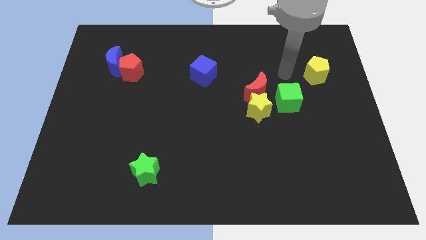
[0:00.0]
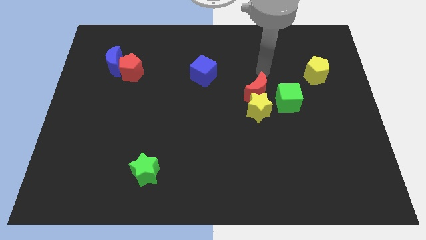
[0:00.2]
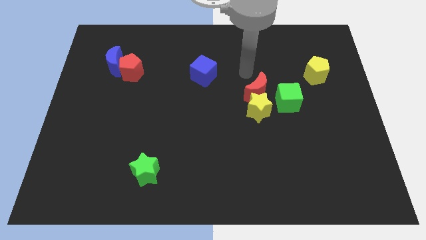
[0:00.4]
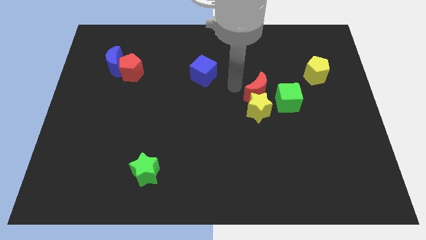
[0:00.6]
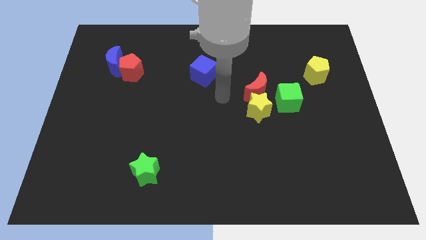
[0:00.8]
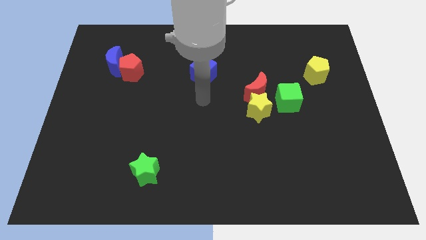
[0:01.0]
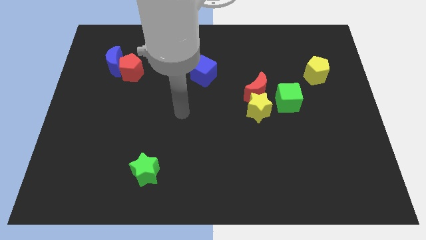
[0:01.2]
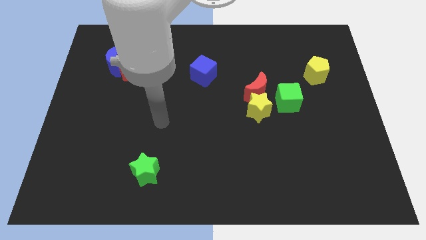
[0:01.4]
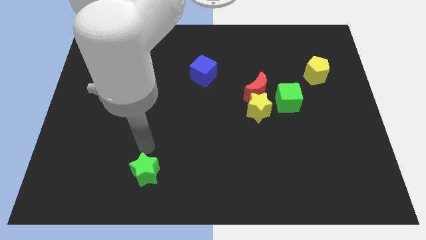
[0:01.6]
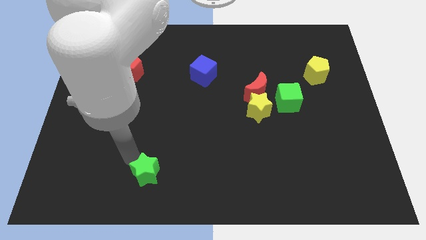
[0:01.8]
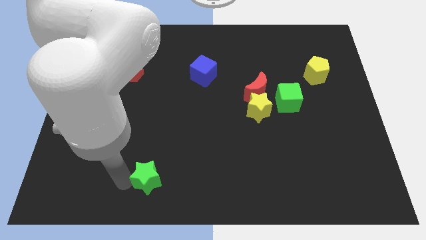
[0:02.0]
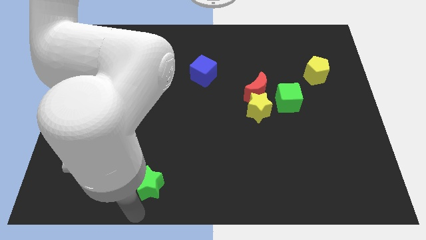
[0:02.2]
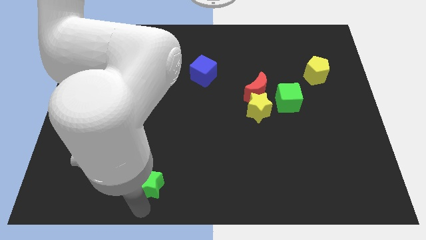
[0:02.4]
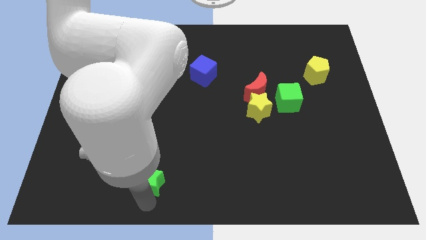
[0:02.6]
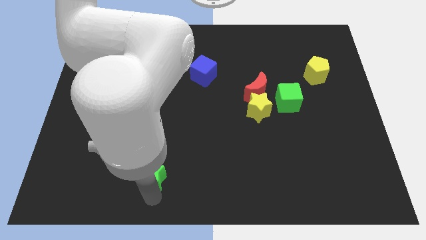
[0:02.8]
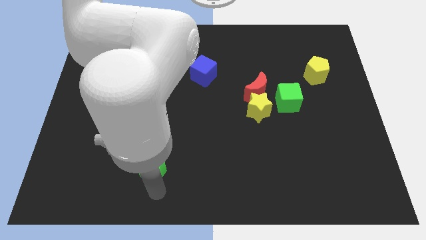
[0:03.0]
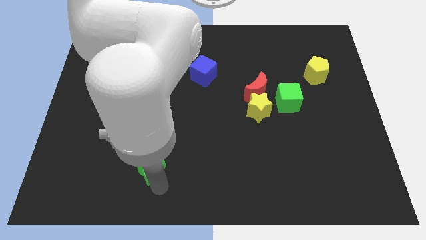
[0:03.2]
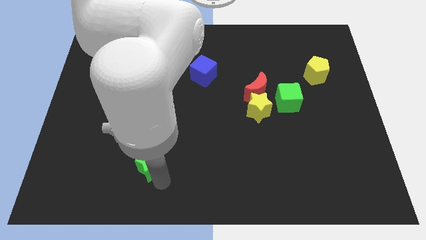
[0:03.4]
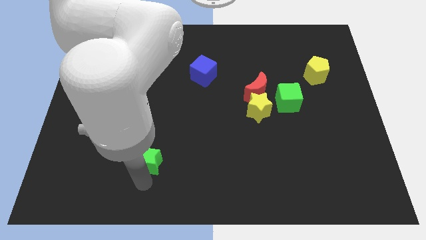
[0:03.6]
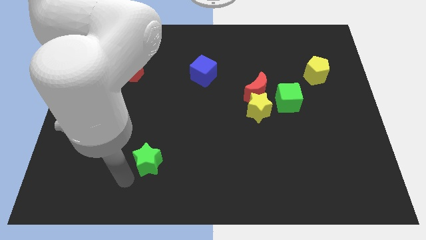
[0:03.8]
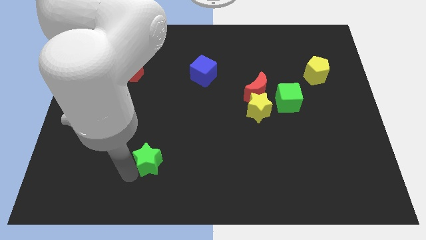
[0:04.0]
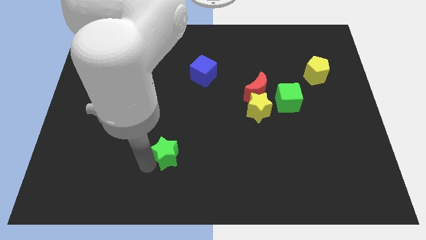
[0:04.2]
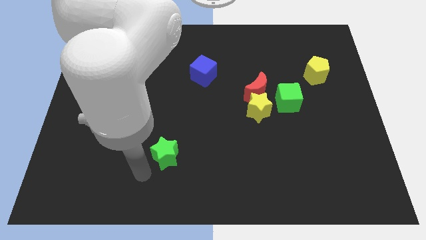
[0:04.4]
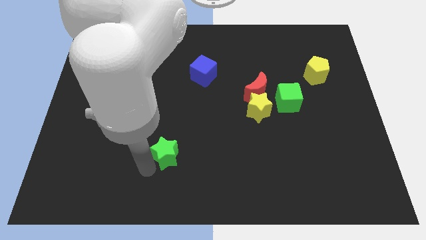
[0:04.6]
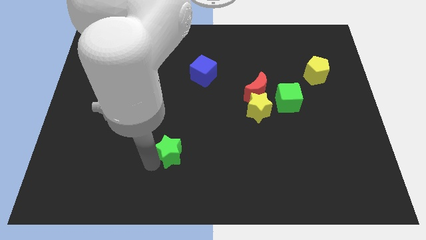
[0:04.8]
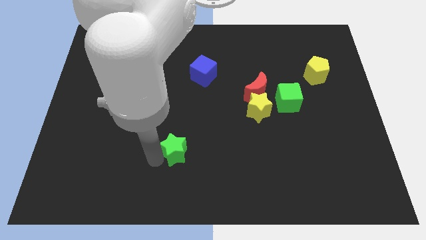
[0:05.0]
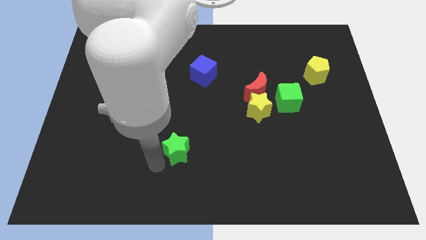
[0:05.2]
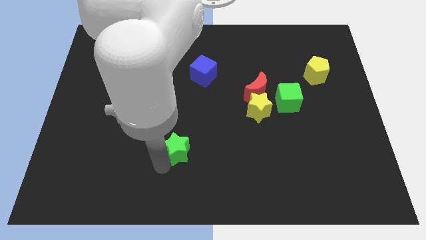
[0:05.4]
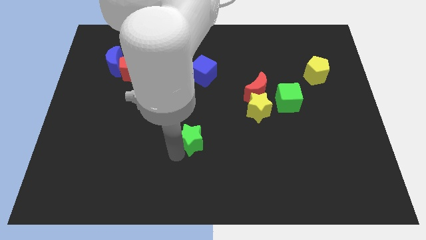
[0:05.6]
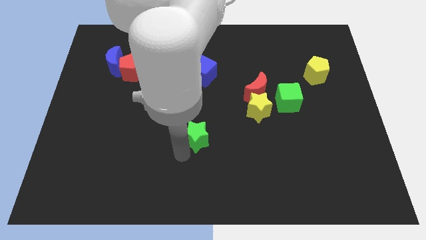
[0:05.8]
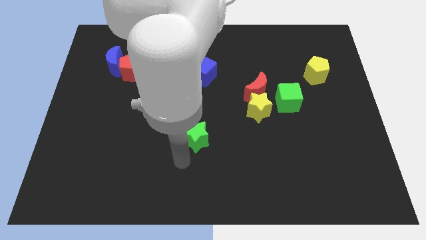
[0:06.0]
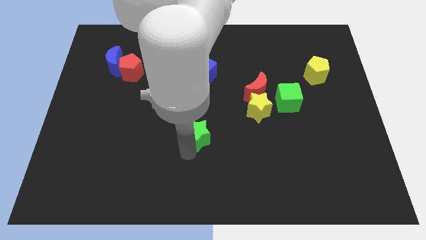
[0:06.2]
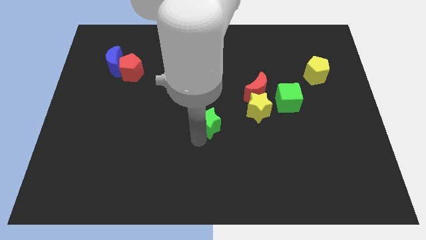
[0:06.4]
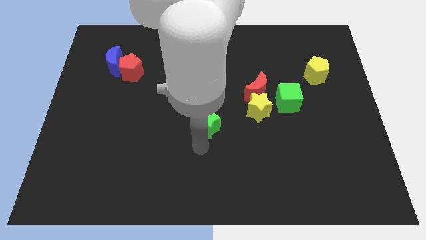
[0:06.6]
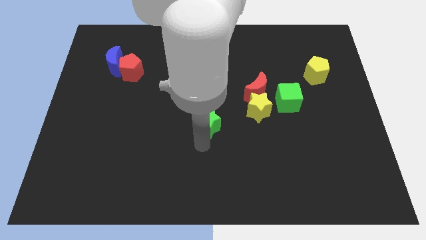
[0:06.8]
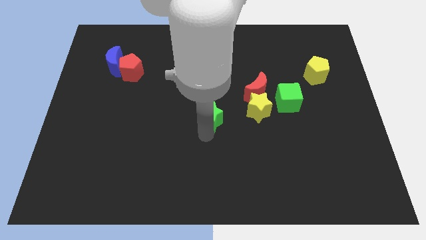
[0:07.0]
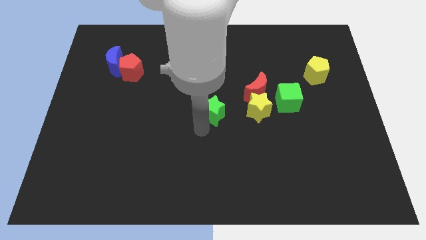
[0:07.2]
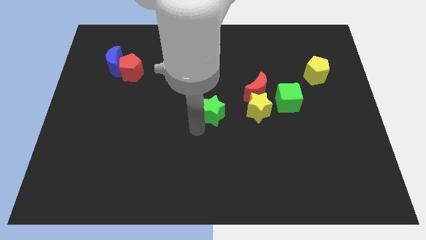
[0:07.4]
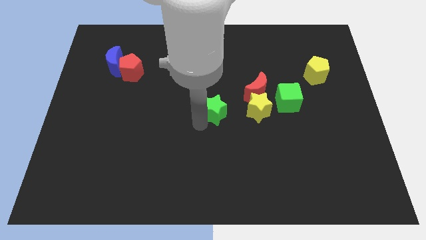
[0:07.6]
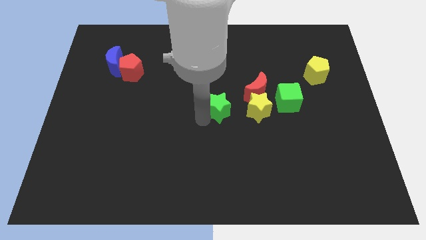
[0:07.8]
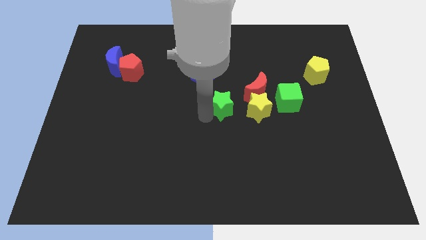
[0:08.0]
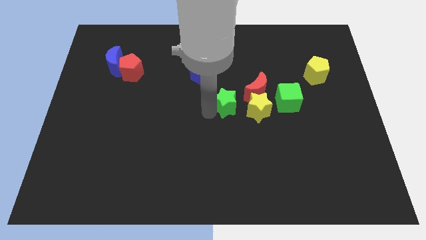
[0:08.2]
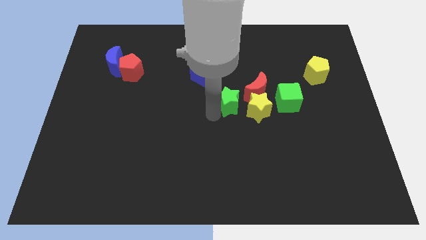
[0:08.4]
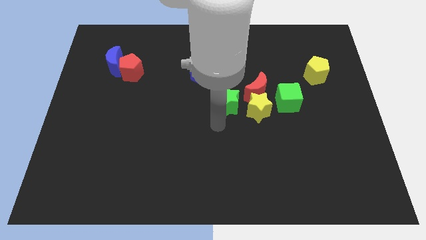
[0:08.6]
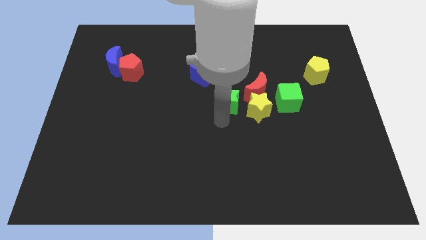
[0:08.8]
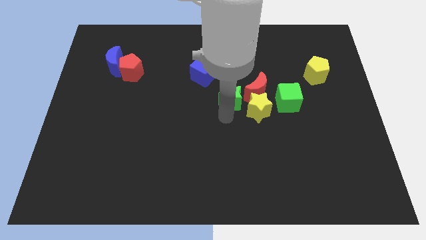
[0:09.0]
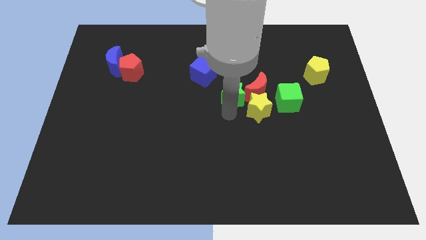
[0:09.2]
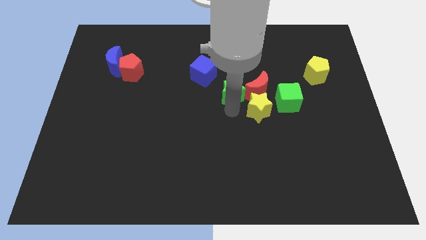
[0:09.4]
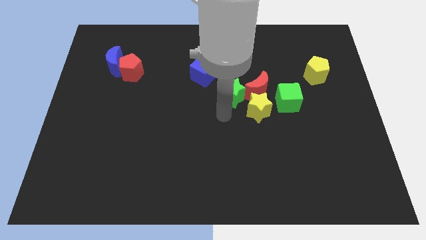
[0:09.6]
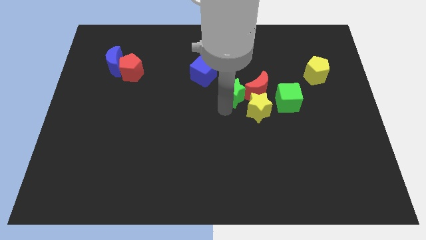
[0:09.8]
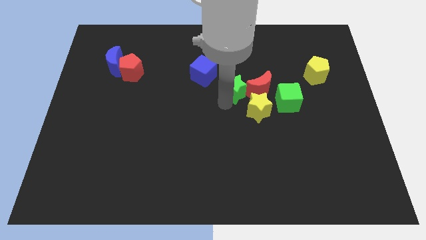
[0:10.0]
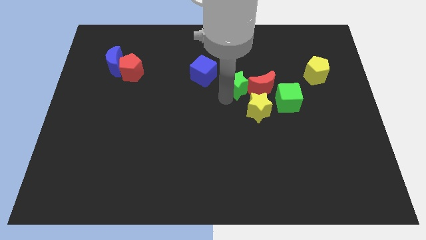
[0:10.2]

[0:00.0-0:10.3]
push the green star right of the blue cube

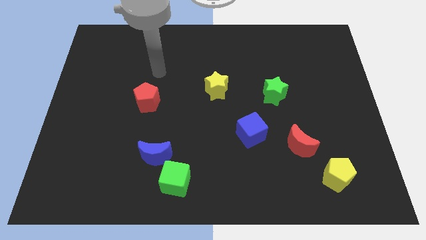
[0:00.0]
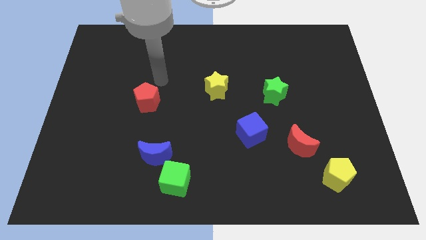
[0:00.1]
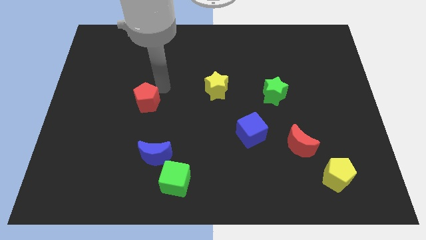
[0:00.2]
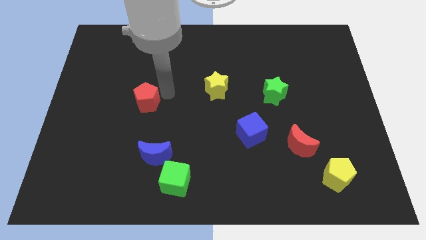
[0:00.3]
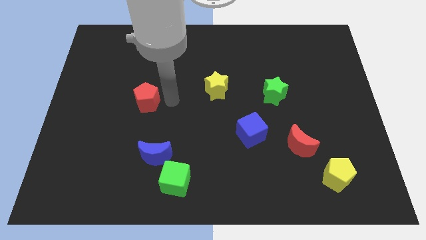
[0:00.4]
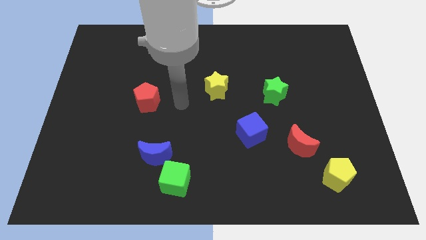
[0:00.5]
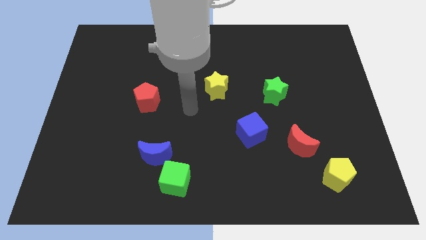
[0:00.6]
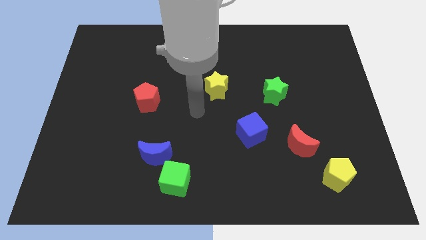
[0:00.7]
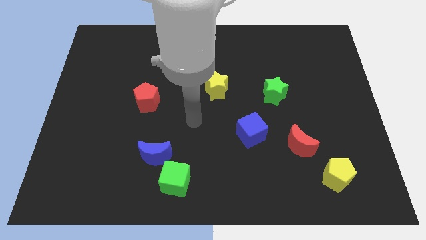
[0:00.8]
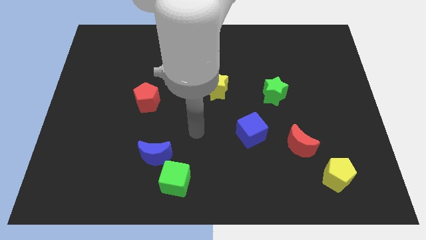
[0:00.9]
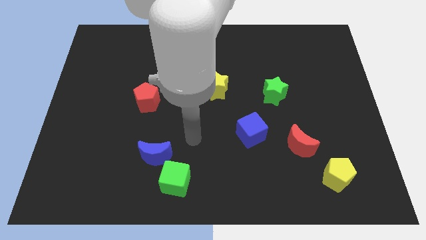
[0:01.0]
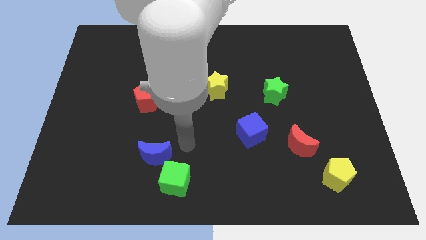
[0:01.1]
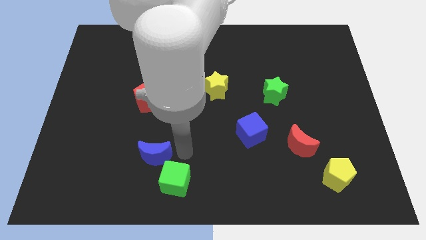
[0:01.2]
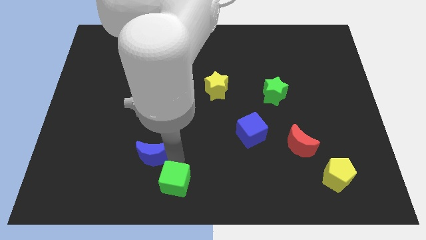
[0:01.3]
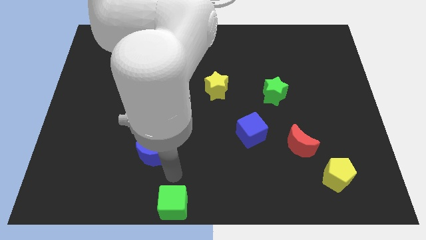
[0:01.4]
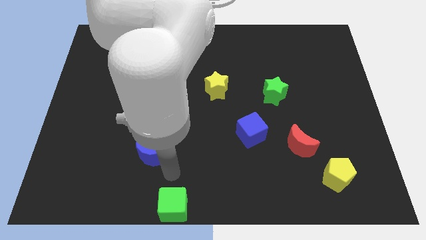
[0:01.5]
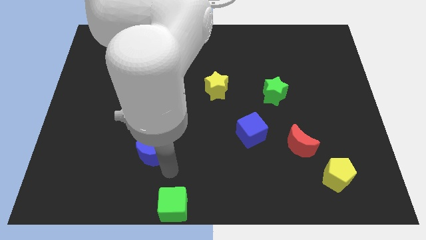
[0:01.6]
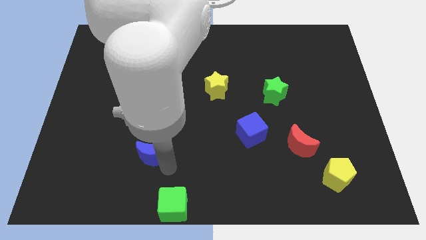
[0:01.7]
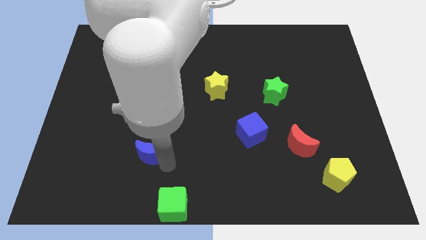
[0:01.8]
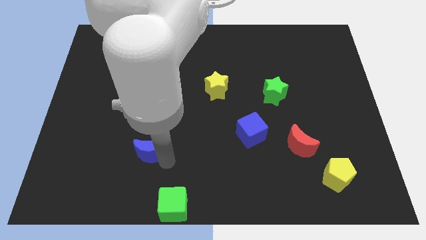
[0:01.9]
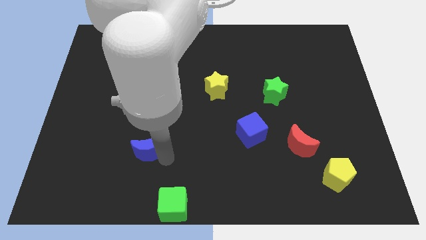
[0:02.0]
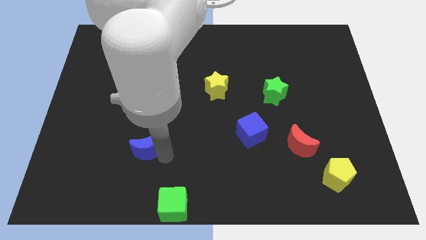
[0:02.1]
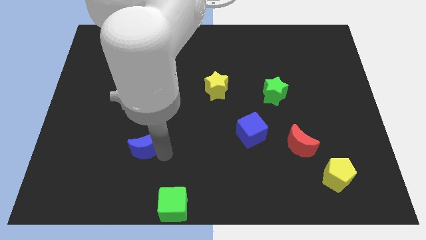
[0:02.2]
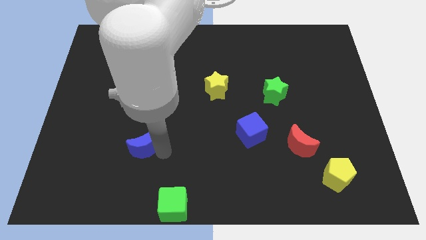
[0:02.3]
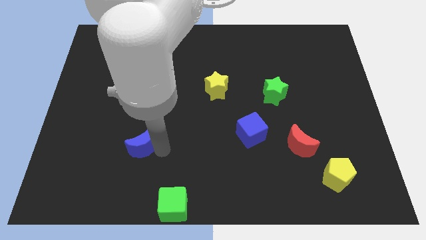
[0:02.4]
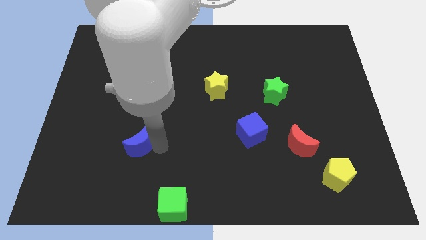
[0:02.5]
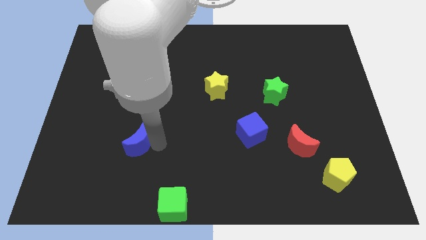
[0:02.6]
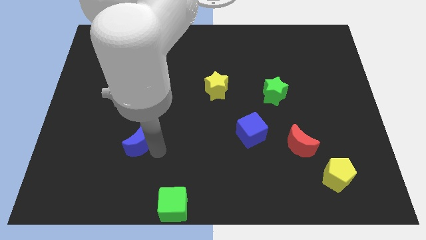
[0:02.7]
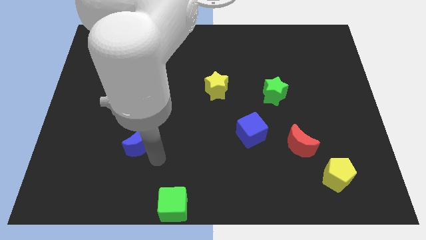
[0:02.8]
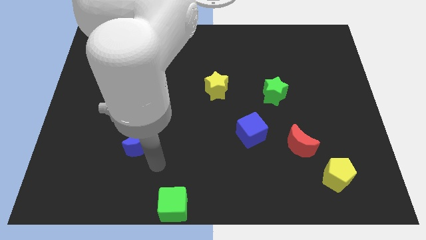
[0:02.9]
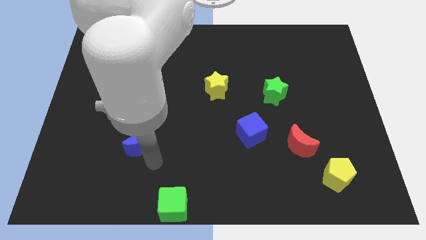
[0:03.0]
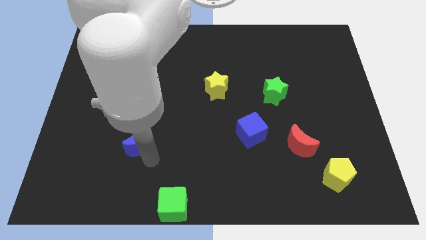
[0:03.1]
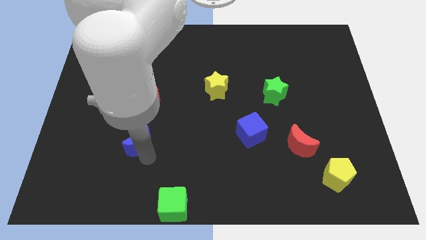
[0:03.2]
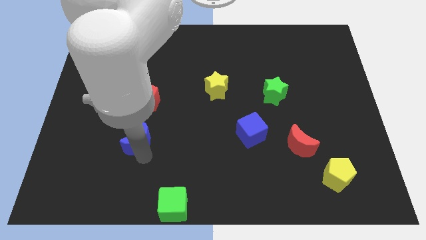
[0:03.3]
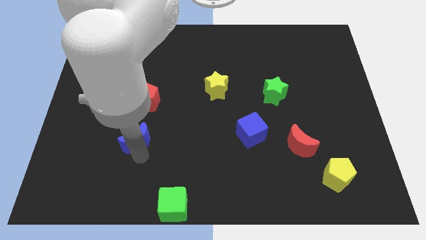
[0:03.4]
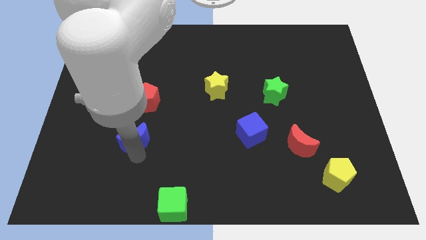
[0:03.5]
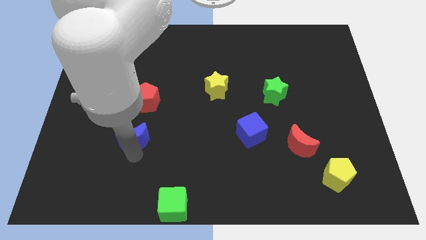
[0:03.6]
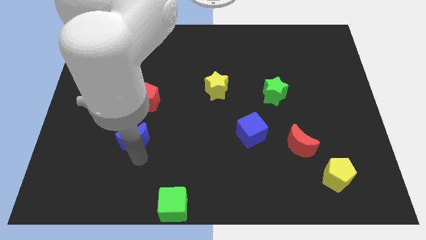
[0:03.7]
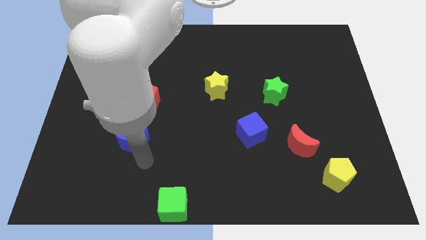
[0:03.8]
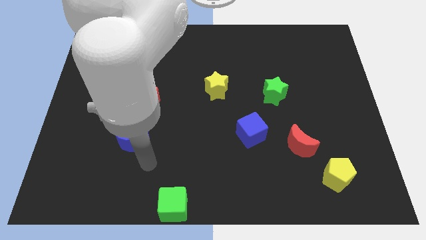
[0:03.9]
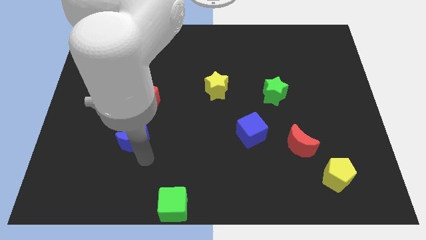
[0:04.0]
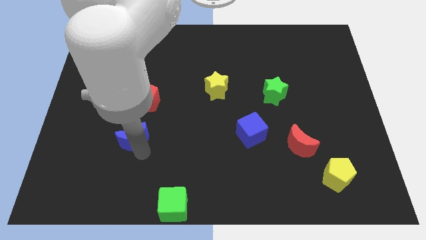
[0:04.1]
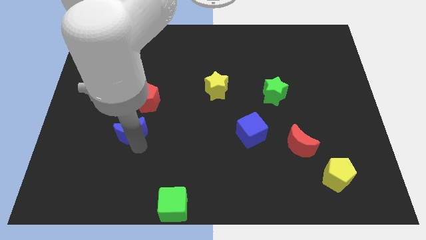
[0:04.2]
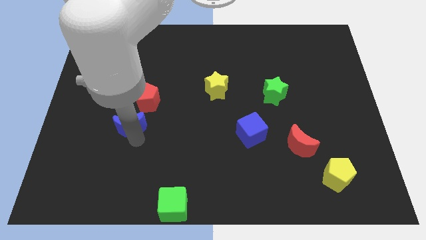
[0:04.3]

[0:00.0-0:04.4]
put the blue moon diagonally down and to the left of the red pentagon
